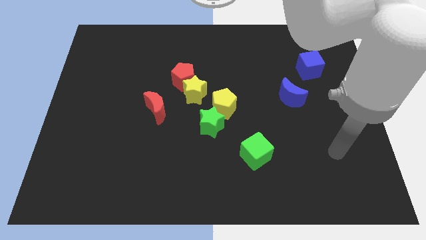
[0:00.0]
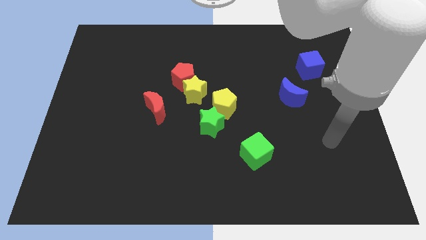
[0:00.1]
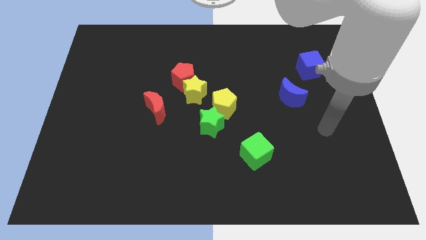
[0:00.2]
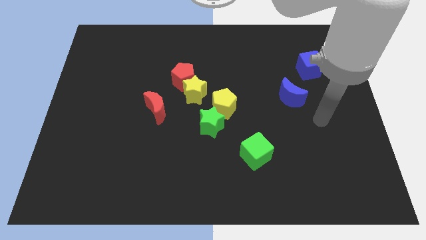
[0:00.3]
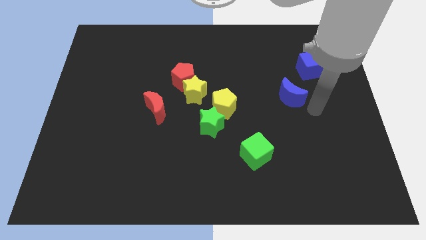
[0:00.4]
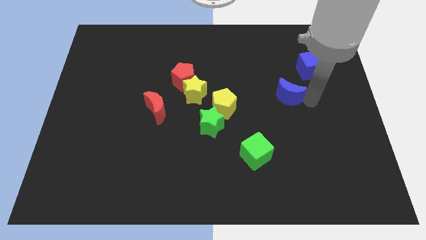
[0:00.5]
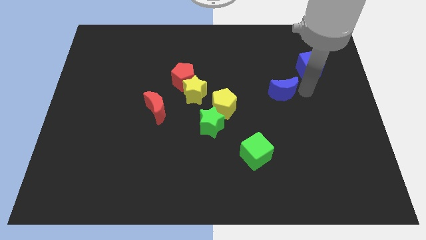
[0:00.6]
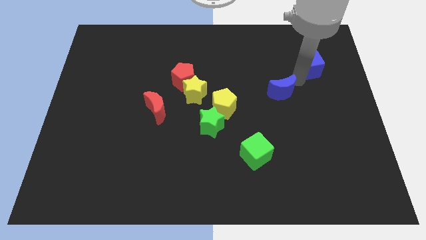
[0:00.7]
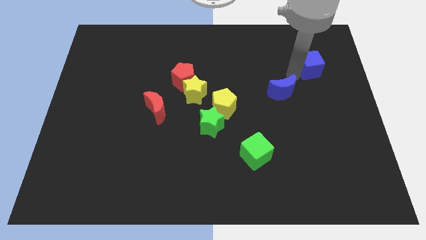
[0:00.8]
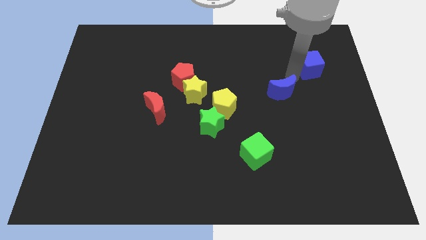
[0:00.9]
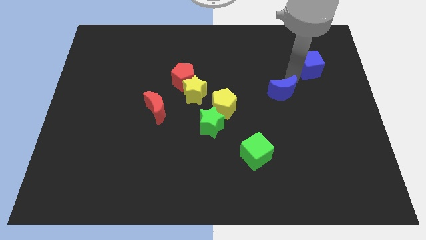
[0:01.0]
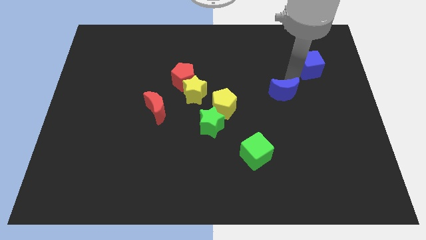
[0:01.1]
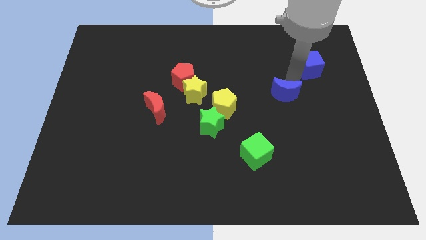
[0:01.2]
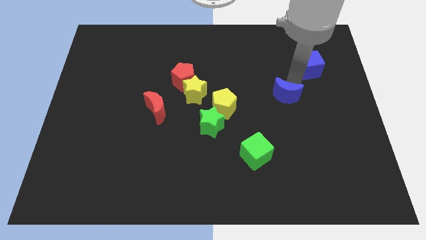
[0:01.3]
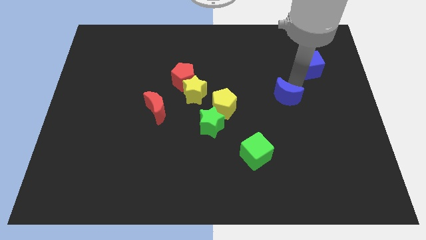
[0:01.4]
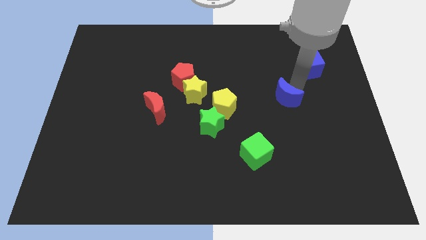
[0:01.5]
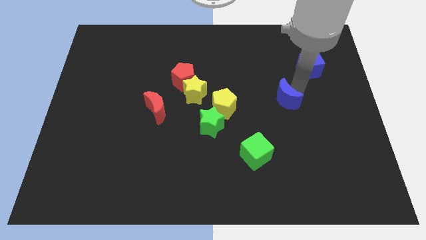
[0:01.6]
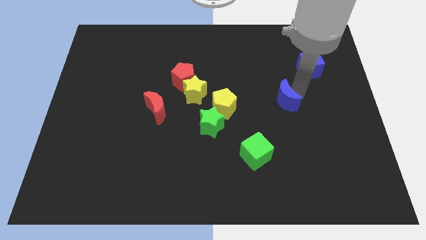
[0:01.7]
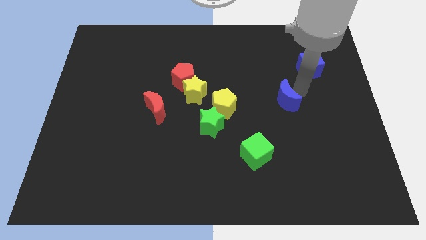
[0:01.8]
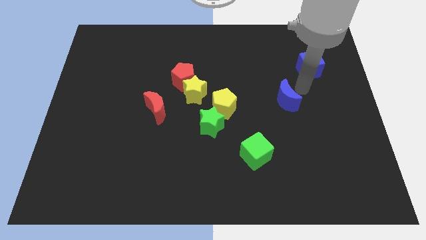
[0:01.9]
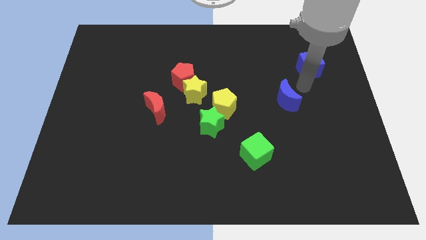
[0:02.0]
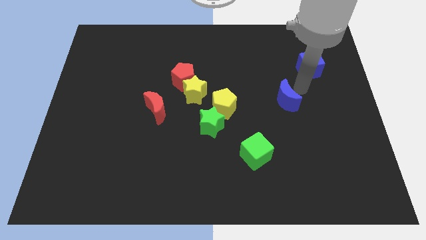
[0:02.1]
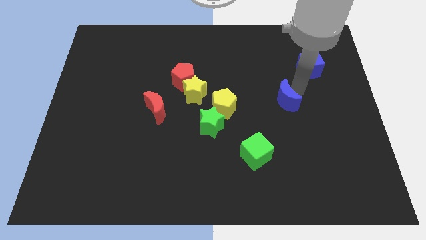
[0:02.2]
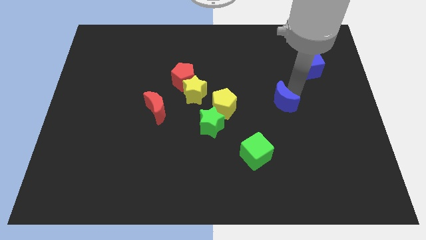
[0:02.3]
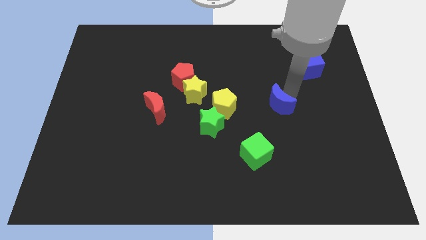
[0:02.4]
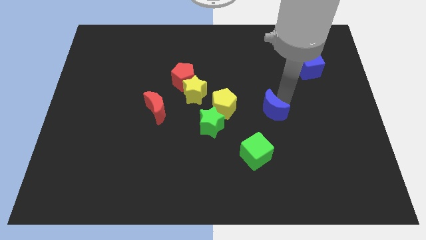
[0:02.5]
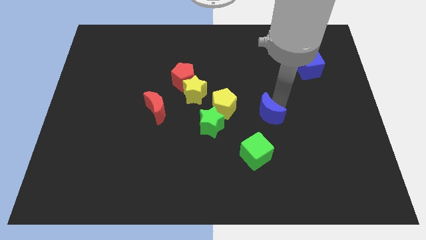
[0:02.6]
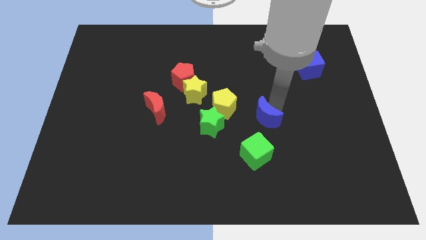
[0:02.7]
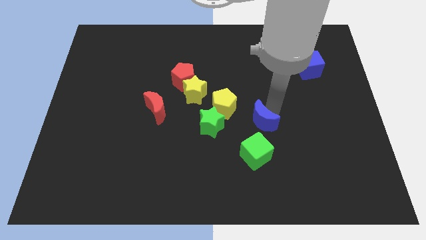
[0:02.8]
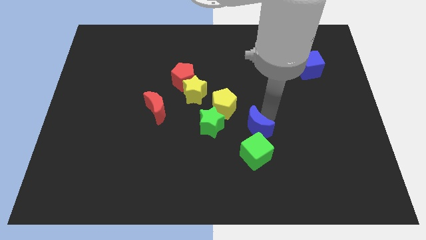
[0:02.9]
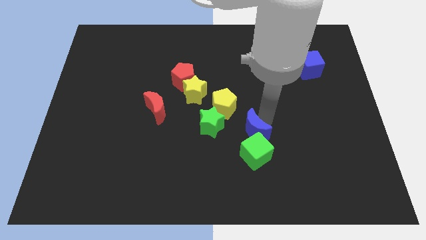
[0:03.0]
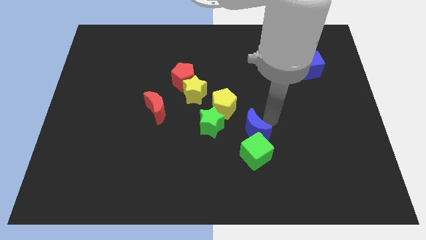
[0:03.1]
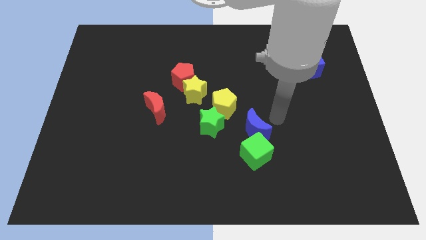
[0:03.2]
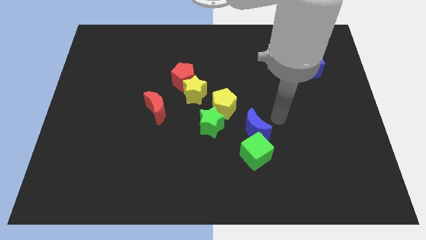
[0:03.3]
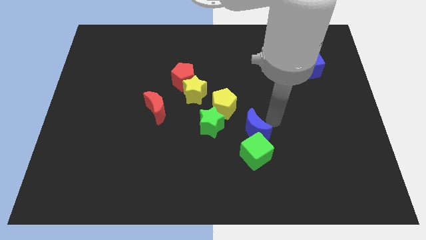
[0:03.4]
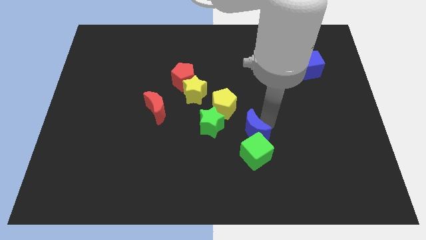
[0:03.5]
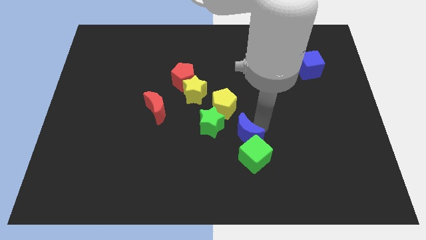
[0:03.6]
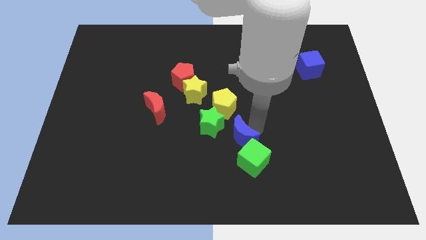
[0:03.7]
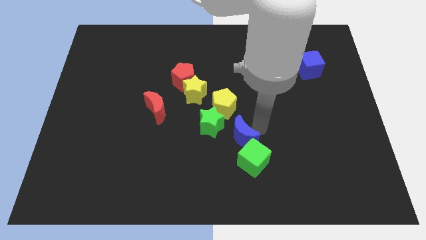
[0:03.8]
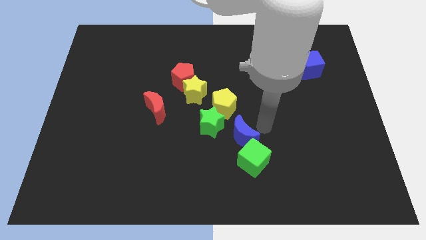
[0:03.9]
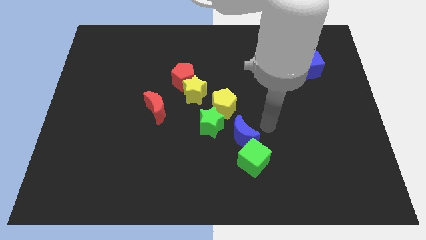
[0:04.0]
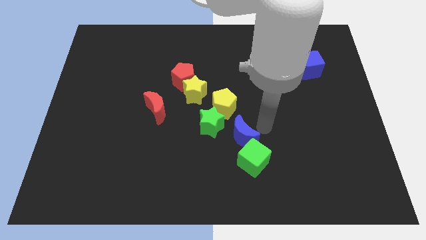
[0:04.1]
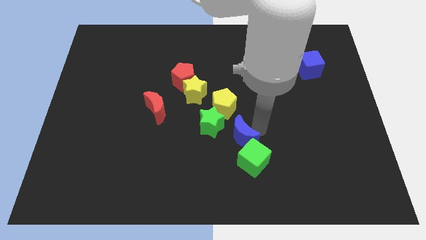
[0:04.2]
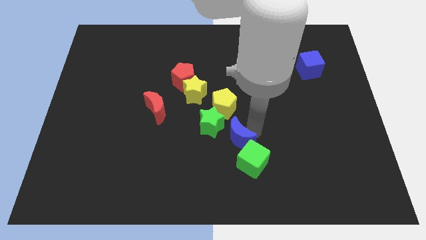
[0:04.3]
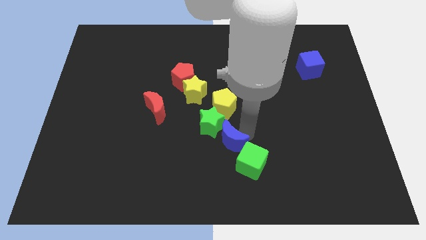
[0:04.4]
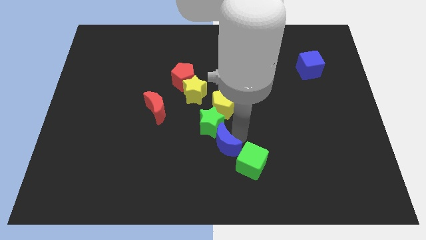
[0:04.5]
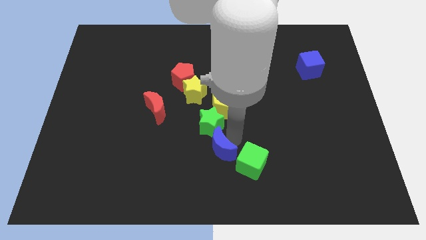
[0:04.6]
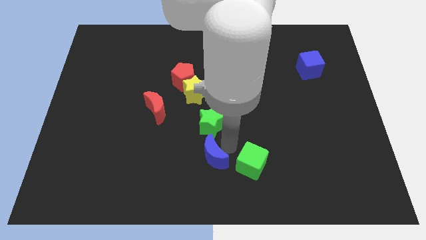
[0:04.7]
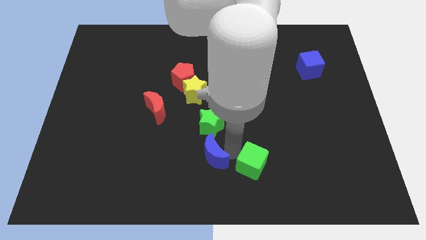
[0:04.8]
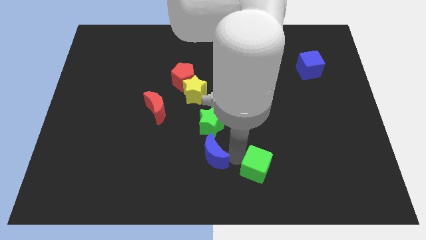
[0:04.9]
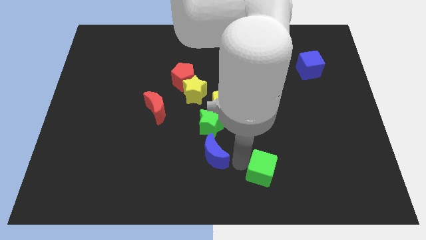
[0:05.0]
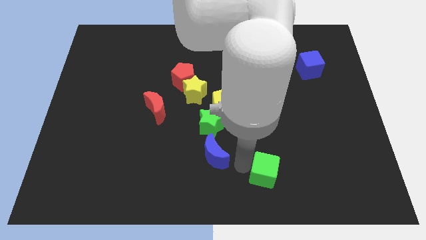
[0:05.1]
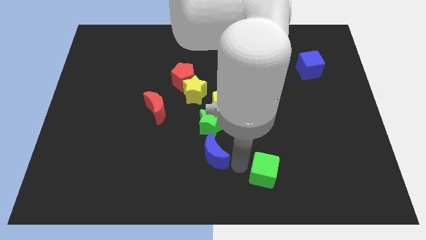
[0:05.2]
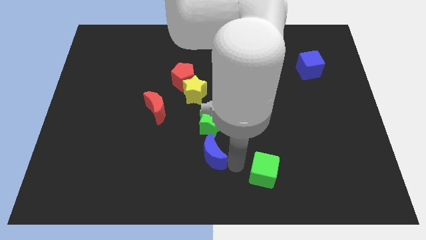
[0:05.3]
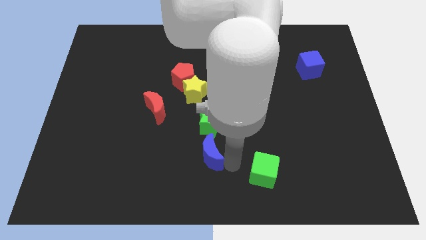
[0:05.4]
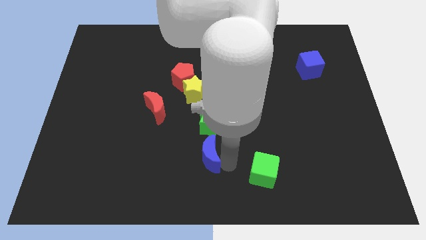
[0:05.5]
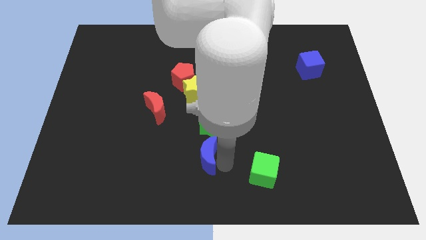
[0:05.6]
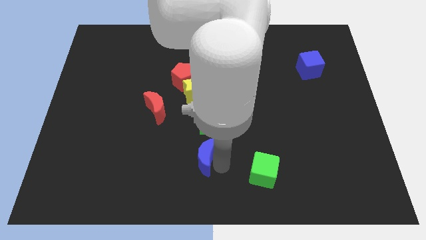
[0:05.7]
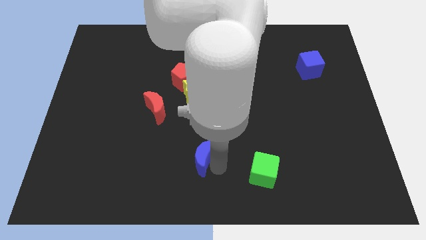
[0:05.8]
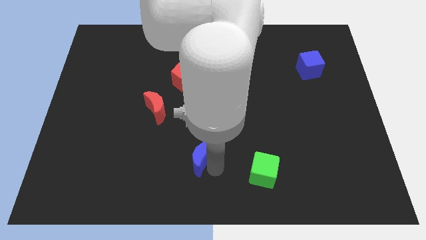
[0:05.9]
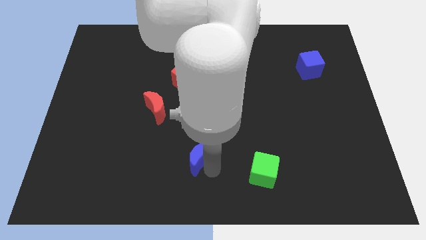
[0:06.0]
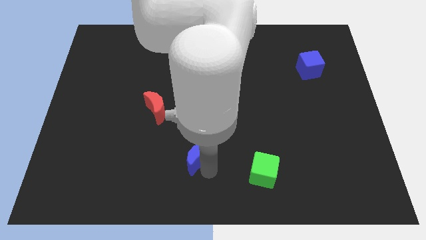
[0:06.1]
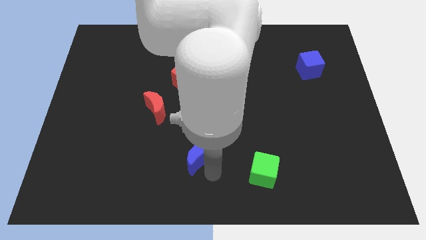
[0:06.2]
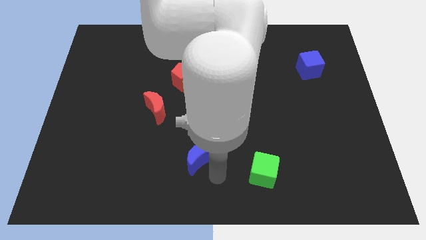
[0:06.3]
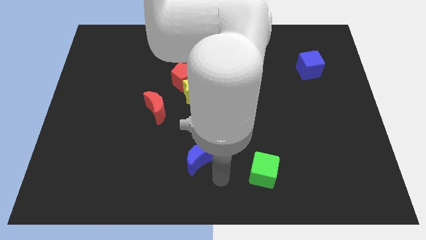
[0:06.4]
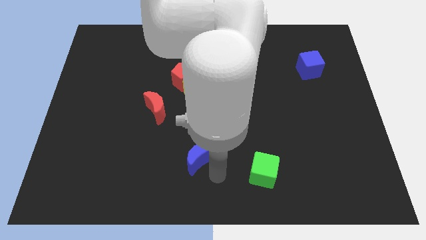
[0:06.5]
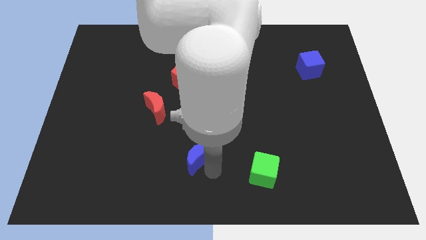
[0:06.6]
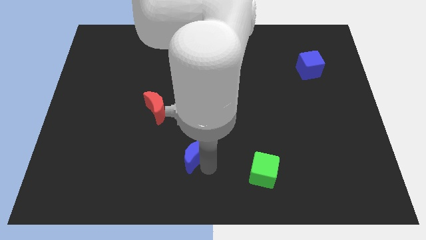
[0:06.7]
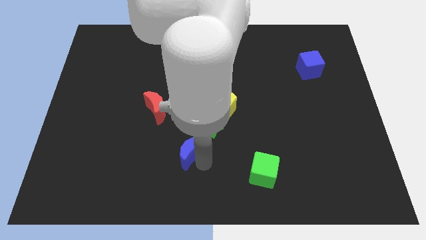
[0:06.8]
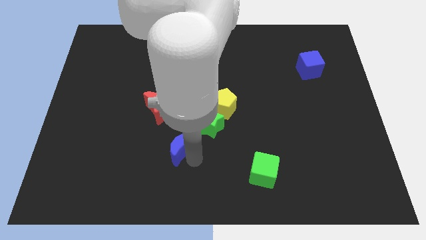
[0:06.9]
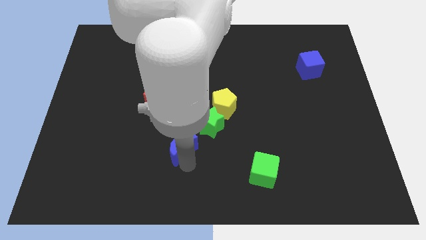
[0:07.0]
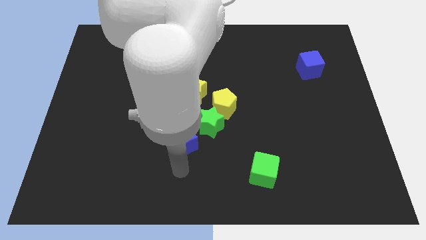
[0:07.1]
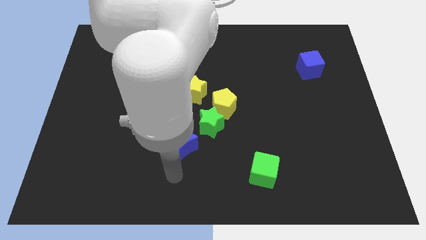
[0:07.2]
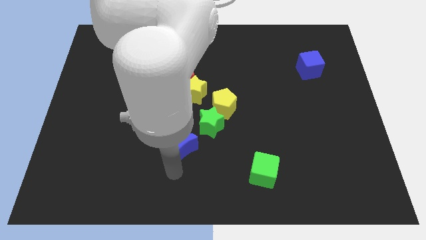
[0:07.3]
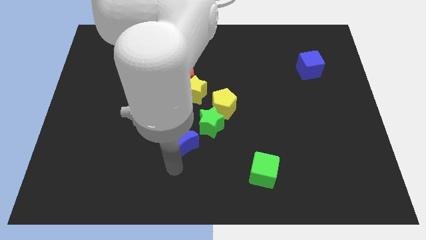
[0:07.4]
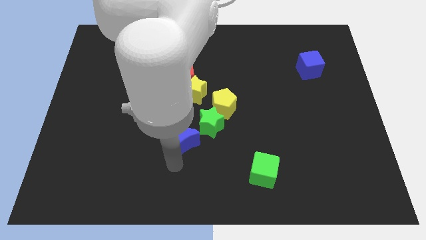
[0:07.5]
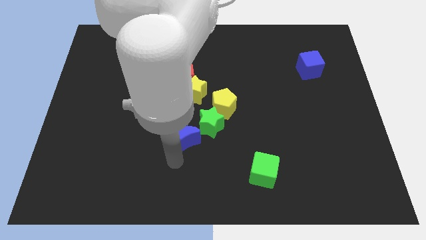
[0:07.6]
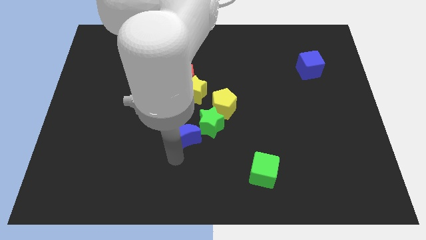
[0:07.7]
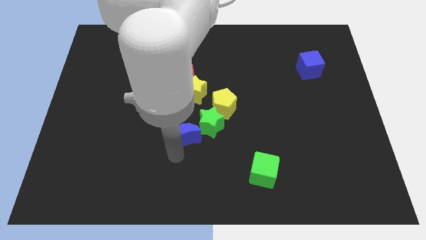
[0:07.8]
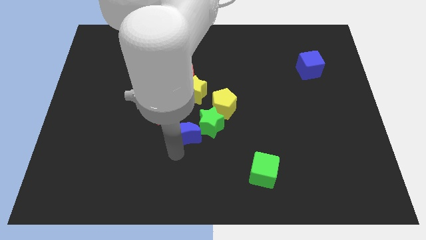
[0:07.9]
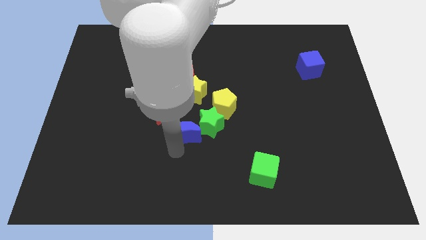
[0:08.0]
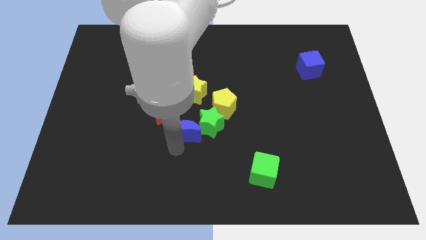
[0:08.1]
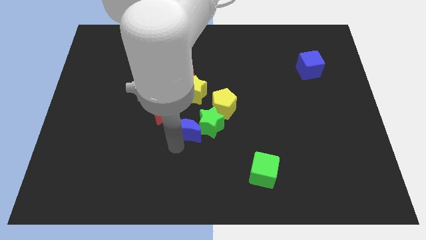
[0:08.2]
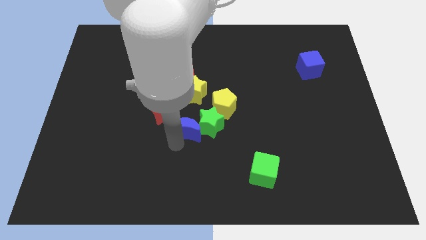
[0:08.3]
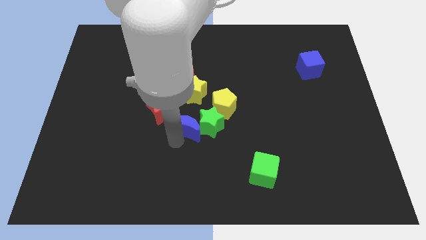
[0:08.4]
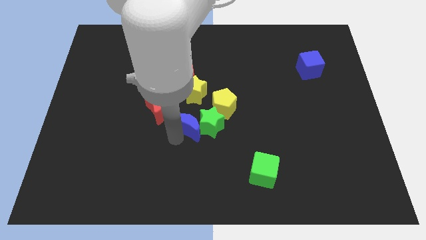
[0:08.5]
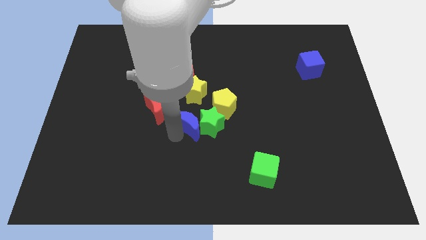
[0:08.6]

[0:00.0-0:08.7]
put the blue moon to the right side of the red moon
